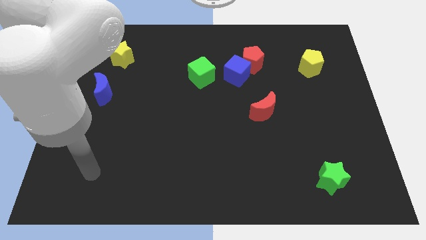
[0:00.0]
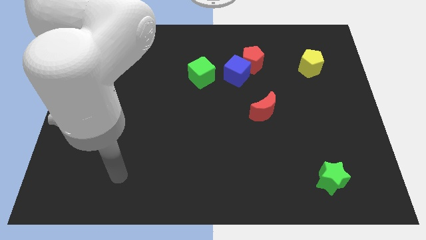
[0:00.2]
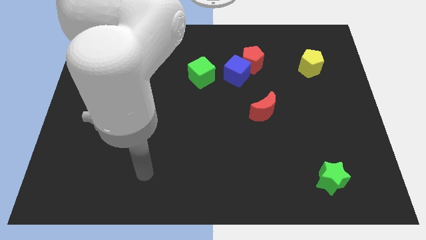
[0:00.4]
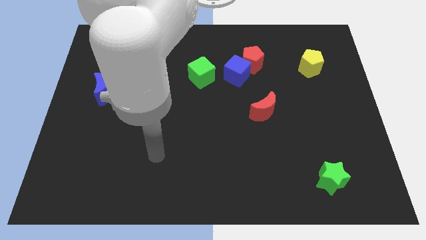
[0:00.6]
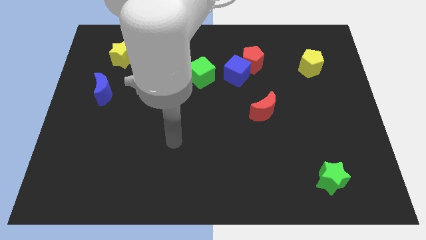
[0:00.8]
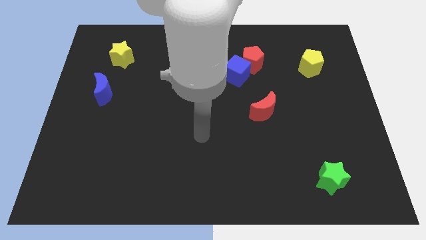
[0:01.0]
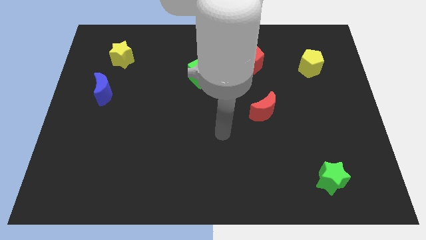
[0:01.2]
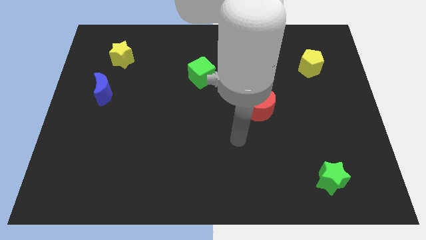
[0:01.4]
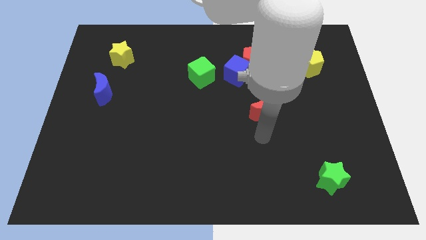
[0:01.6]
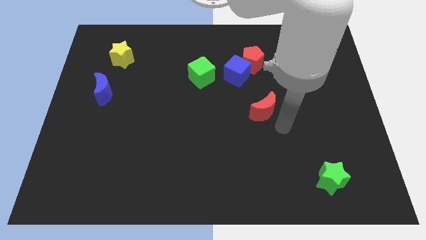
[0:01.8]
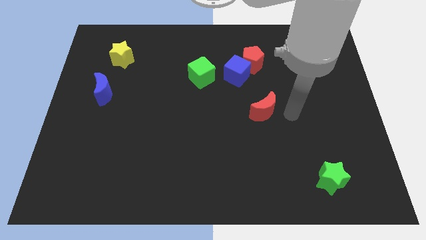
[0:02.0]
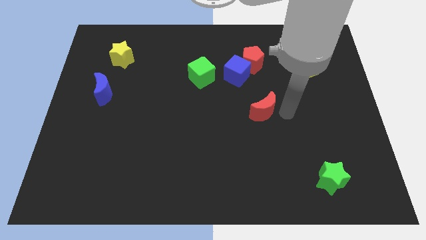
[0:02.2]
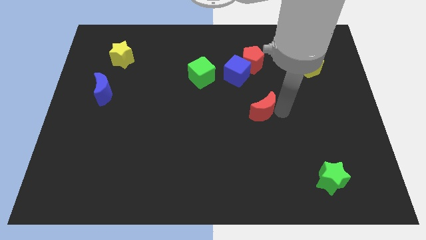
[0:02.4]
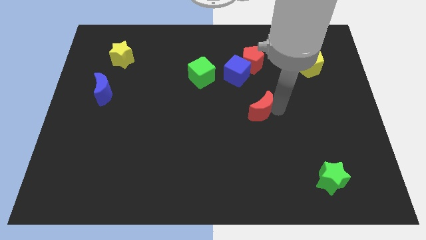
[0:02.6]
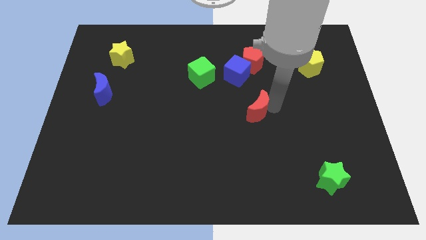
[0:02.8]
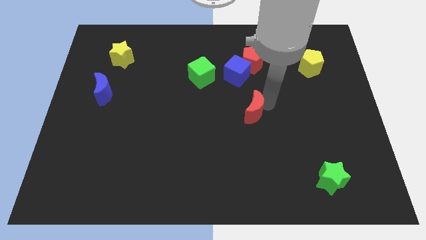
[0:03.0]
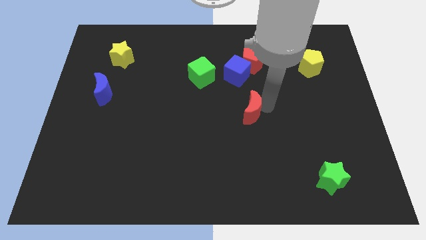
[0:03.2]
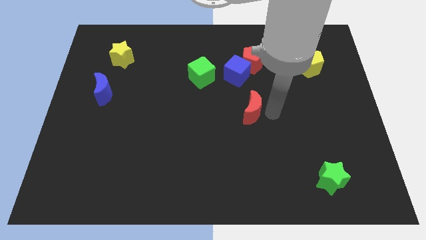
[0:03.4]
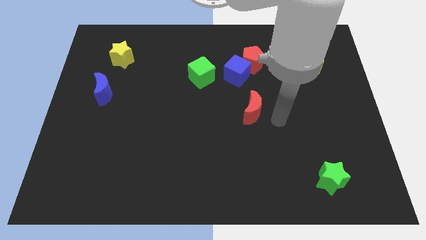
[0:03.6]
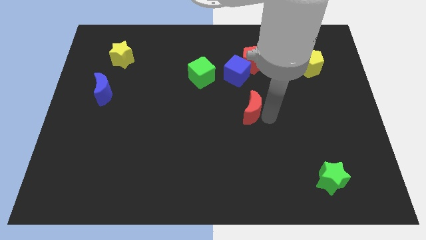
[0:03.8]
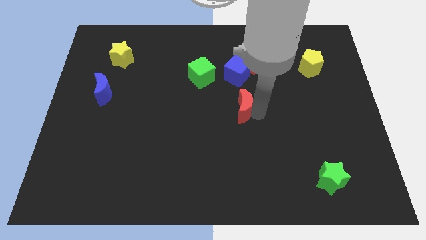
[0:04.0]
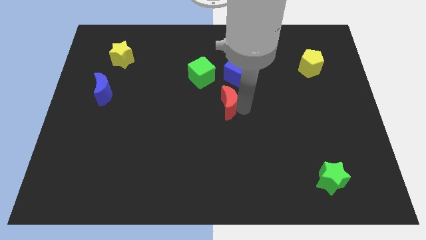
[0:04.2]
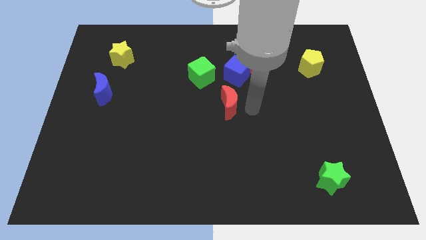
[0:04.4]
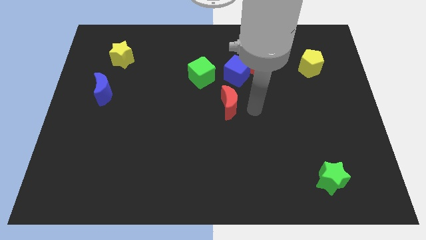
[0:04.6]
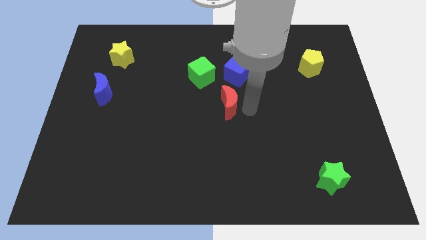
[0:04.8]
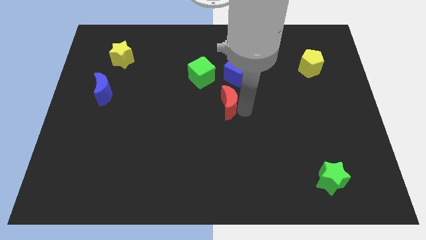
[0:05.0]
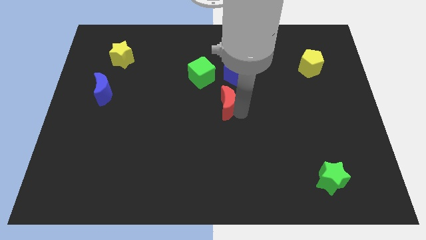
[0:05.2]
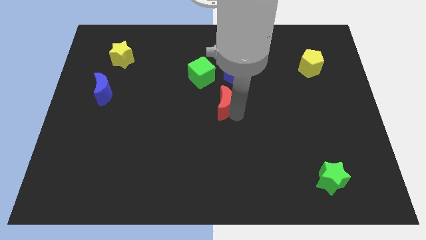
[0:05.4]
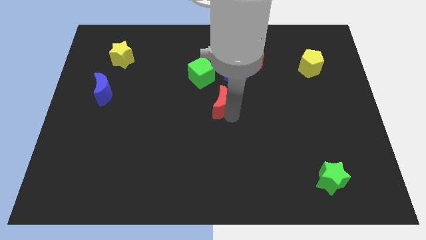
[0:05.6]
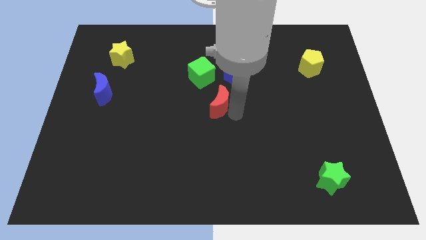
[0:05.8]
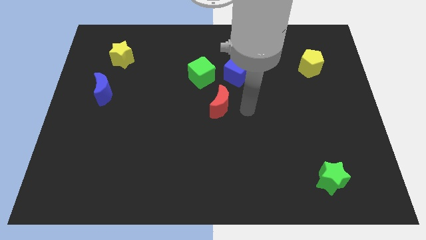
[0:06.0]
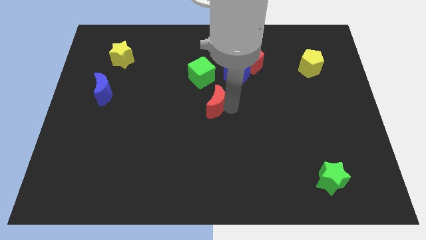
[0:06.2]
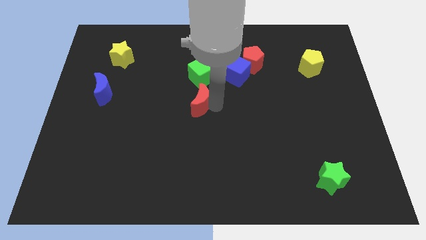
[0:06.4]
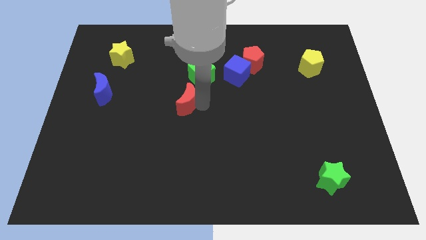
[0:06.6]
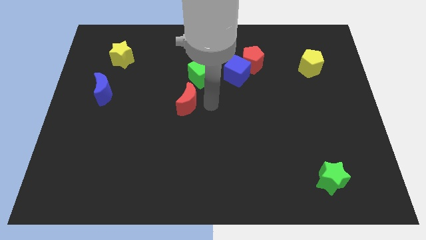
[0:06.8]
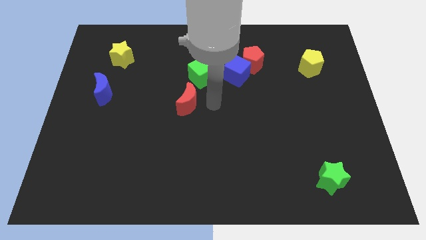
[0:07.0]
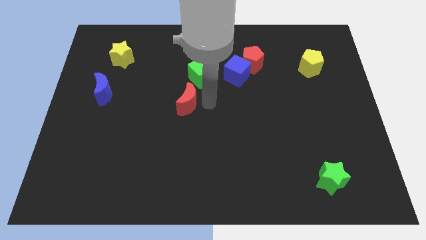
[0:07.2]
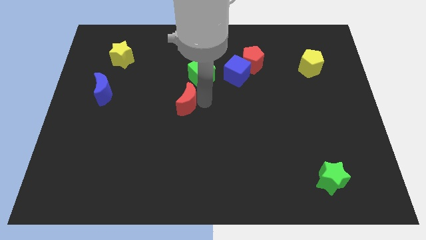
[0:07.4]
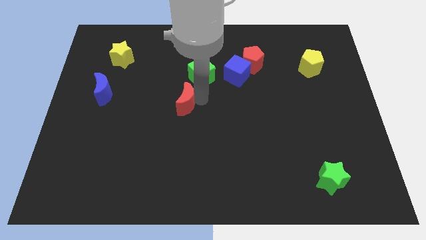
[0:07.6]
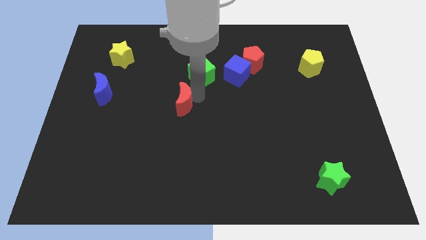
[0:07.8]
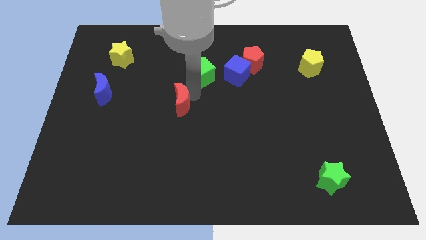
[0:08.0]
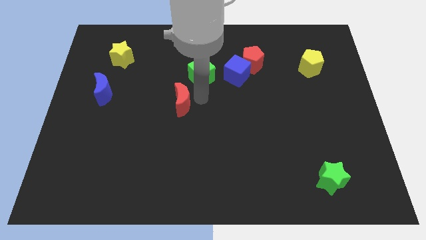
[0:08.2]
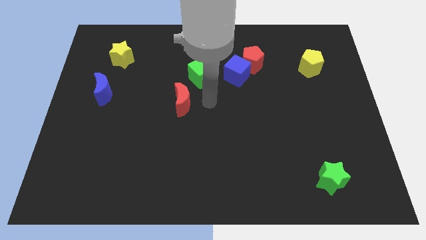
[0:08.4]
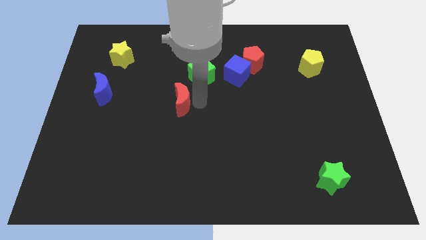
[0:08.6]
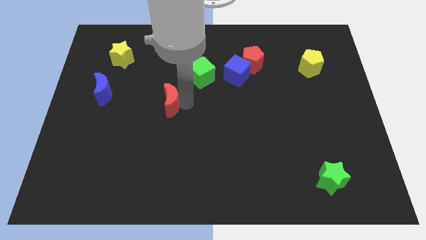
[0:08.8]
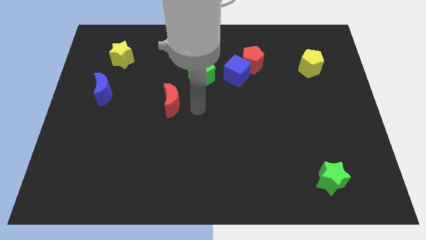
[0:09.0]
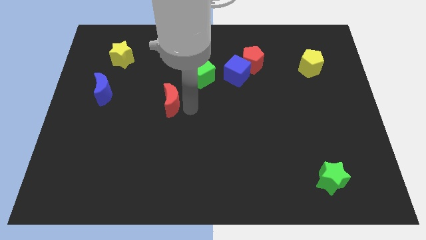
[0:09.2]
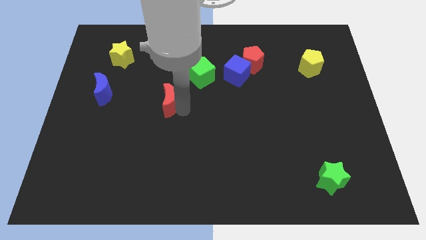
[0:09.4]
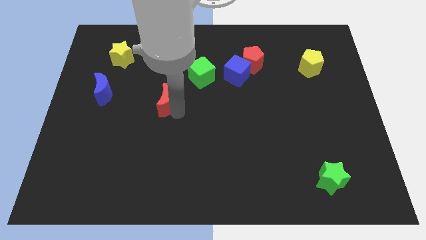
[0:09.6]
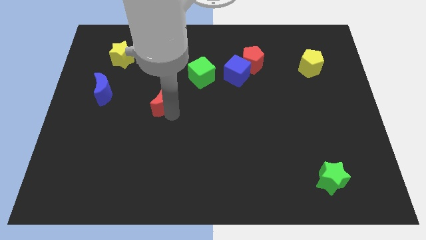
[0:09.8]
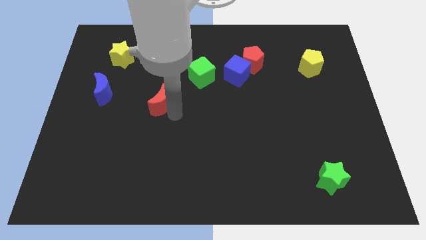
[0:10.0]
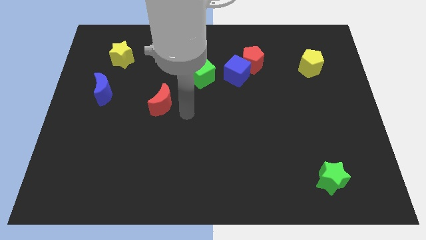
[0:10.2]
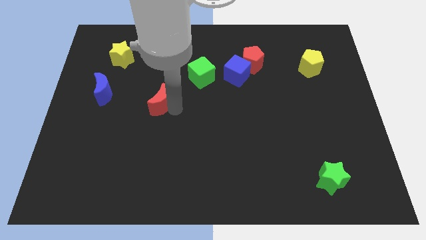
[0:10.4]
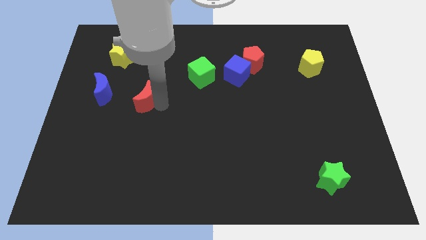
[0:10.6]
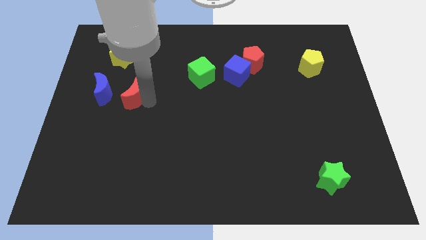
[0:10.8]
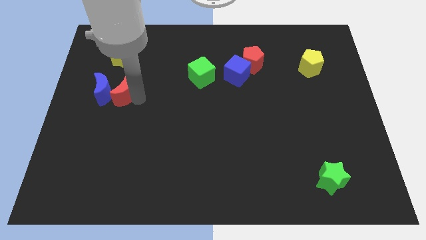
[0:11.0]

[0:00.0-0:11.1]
slide the red moon towards the blue moon

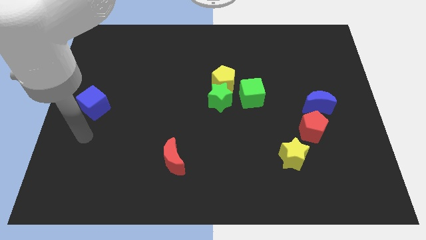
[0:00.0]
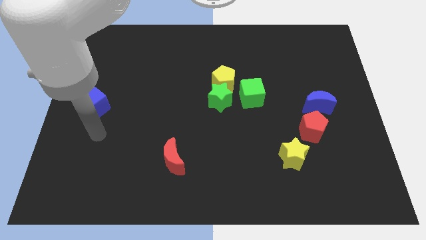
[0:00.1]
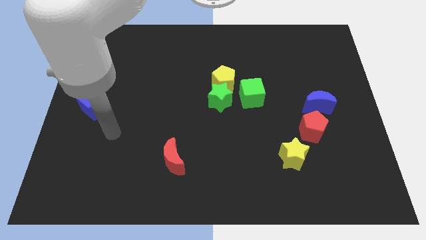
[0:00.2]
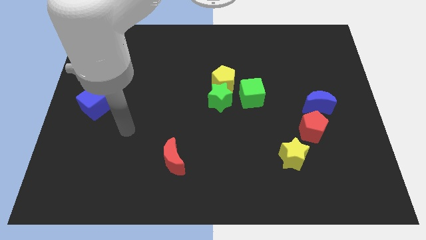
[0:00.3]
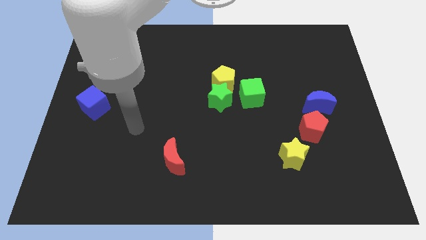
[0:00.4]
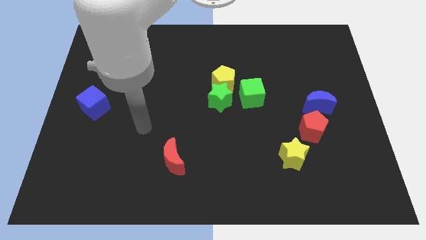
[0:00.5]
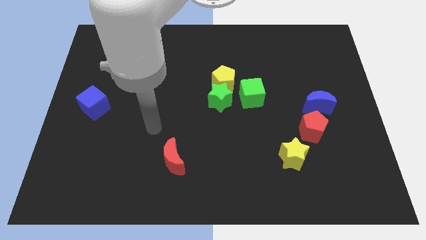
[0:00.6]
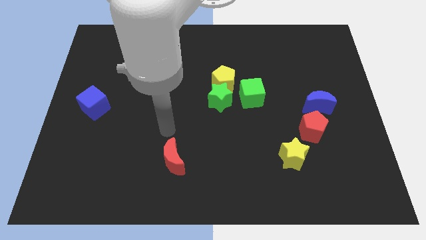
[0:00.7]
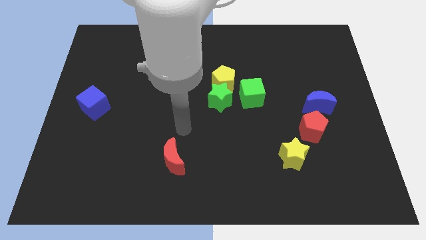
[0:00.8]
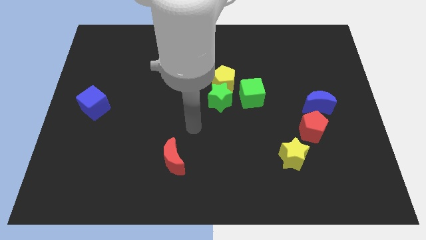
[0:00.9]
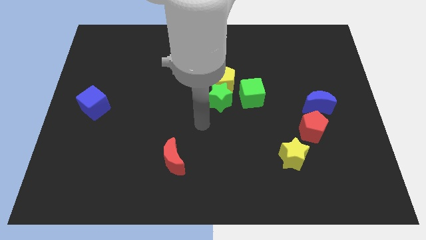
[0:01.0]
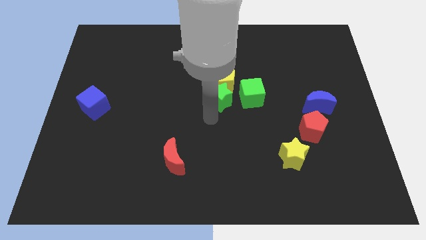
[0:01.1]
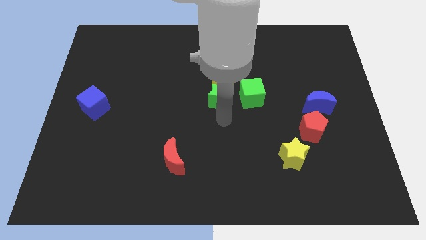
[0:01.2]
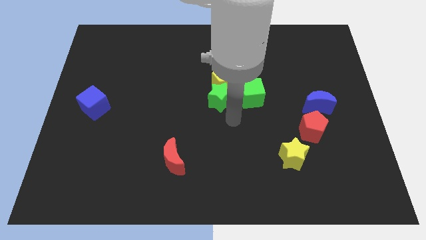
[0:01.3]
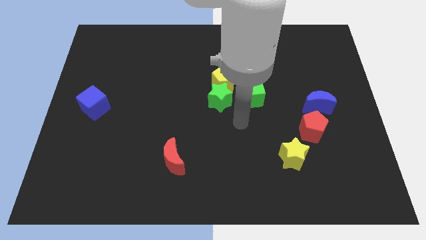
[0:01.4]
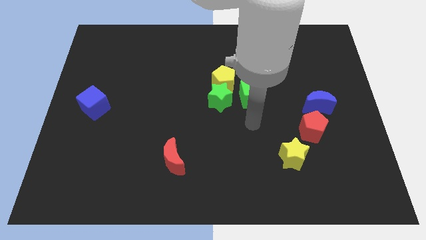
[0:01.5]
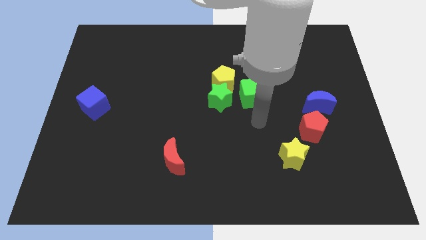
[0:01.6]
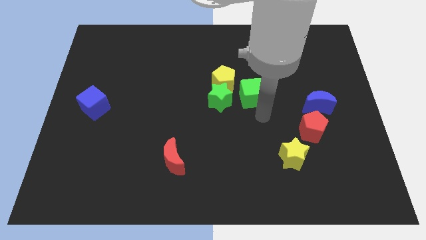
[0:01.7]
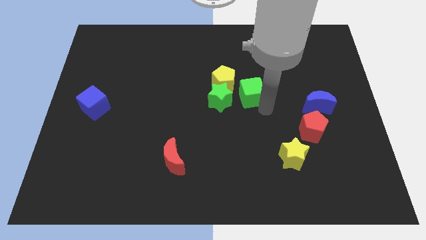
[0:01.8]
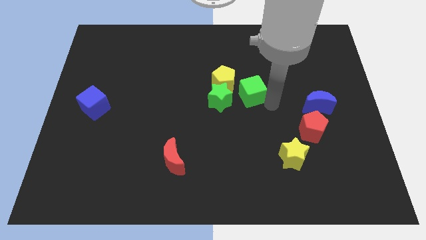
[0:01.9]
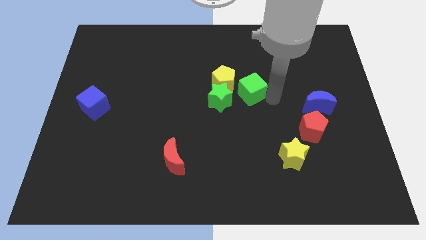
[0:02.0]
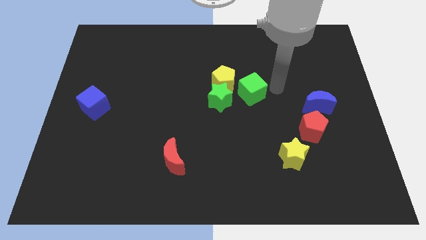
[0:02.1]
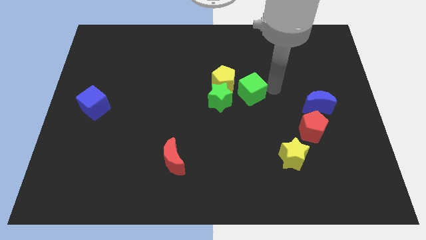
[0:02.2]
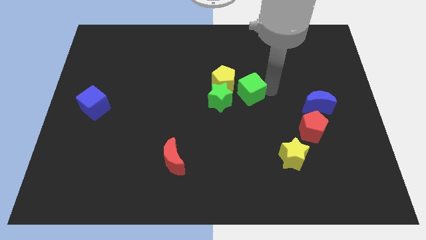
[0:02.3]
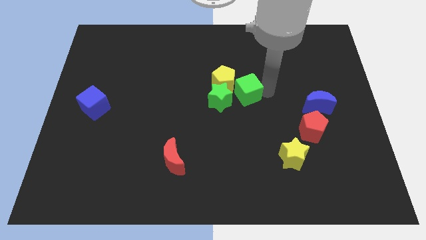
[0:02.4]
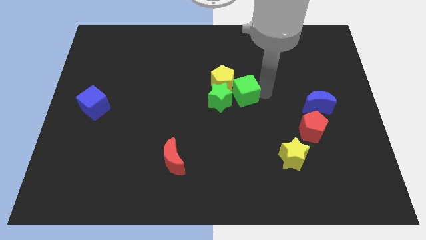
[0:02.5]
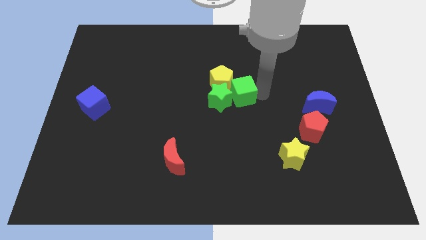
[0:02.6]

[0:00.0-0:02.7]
slide the green cube next to the green star
